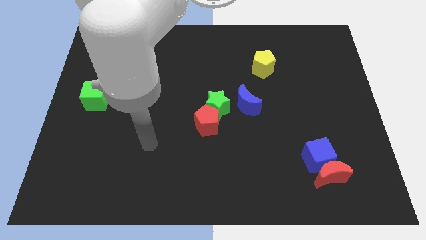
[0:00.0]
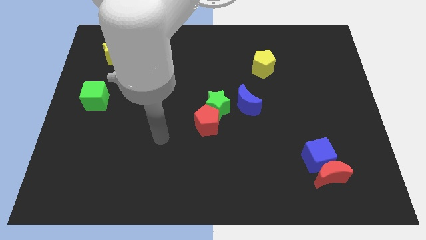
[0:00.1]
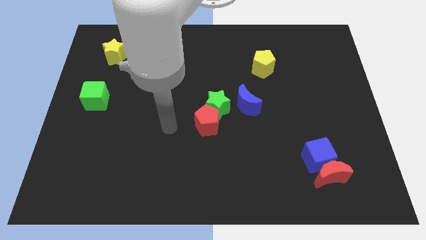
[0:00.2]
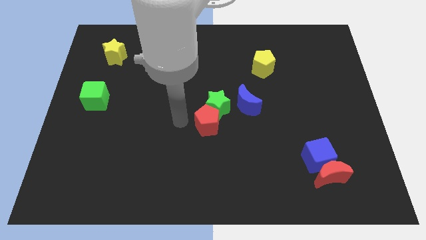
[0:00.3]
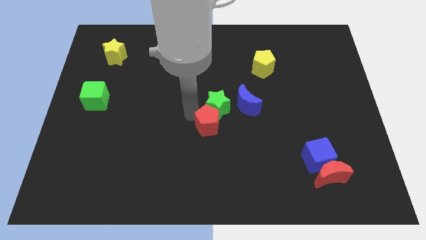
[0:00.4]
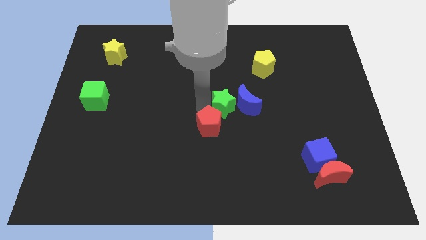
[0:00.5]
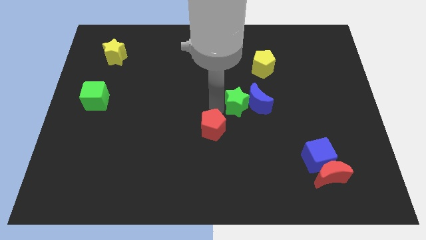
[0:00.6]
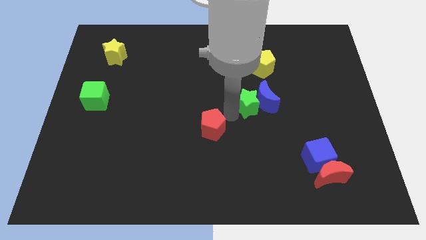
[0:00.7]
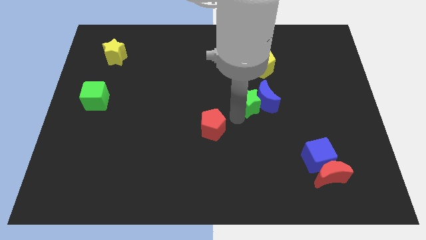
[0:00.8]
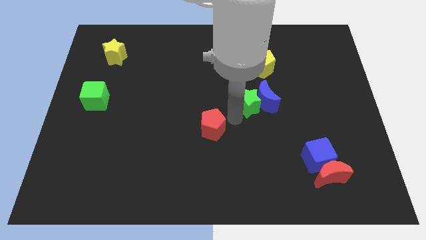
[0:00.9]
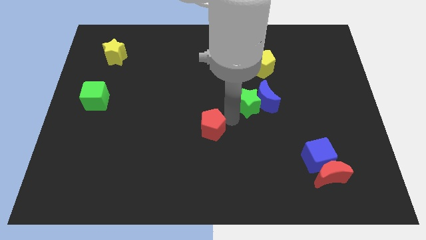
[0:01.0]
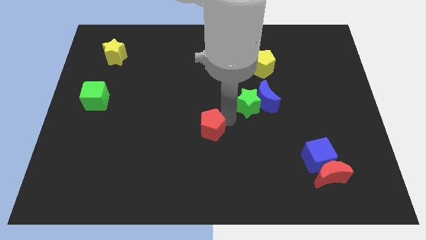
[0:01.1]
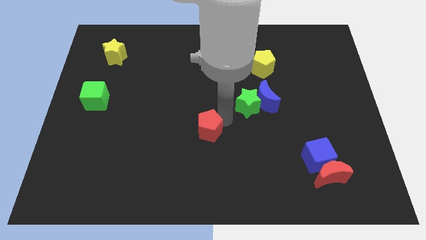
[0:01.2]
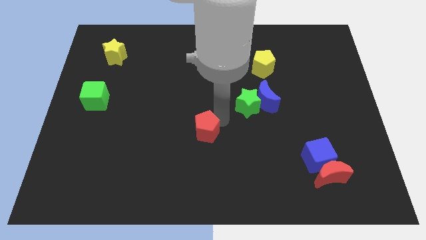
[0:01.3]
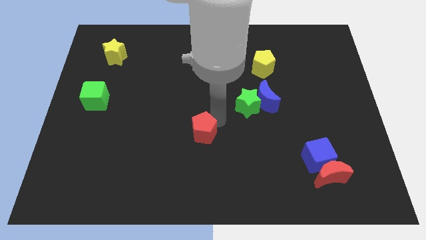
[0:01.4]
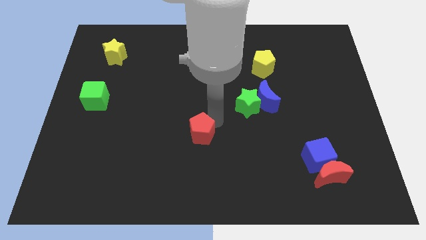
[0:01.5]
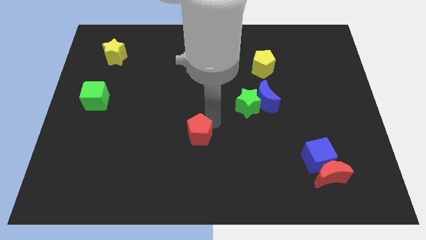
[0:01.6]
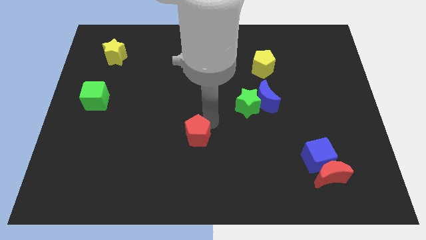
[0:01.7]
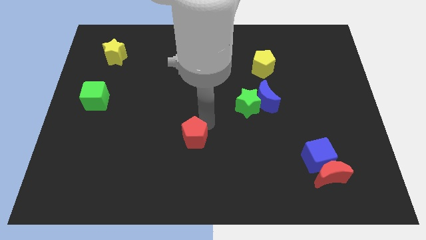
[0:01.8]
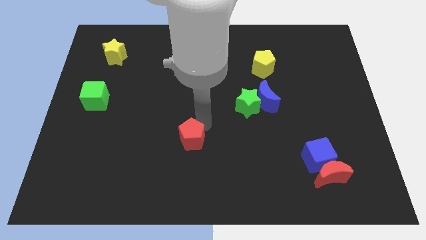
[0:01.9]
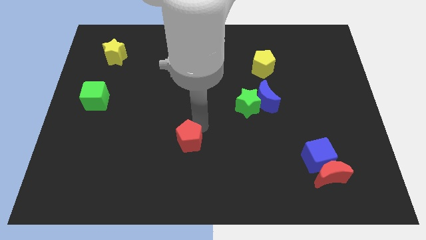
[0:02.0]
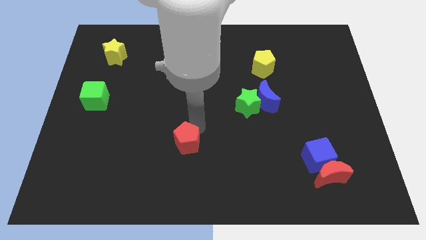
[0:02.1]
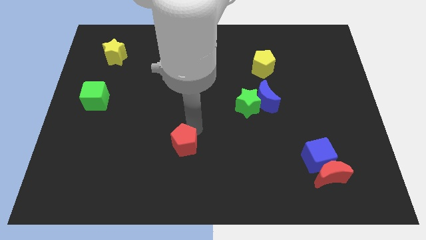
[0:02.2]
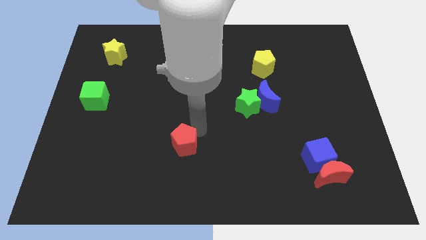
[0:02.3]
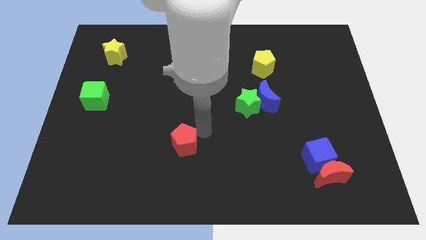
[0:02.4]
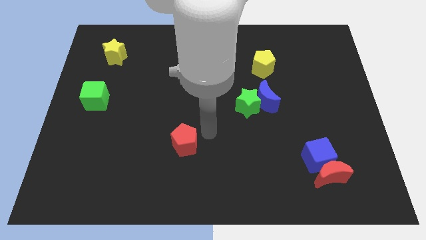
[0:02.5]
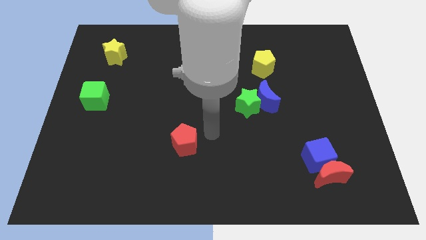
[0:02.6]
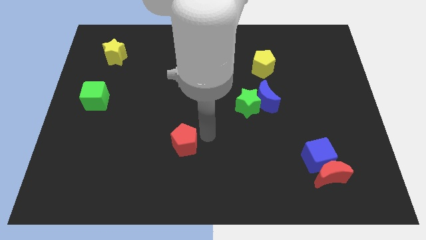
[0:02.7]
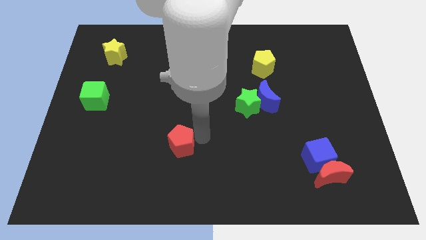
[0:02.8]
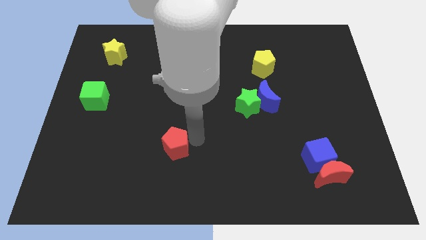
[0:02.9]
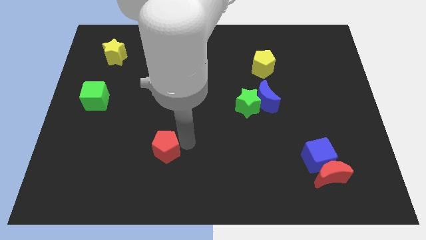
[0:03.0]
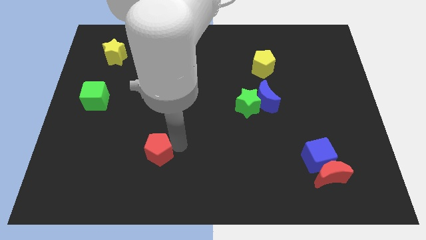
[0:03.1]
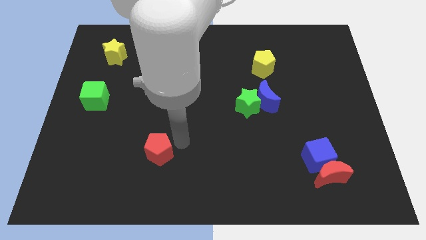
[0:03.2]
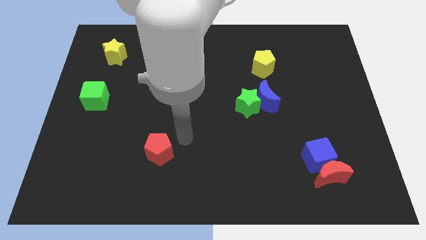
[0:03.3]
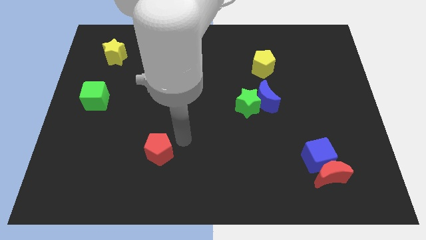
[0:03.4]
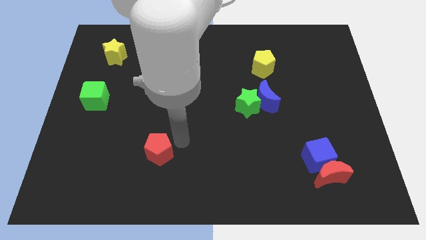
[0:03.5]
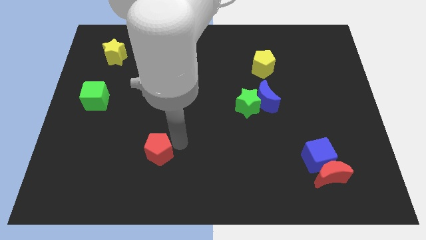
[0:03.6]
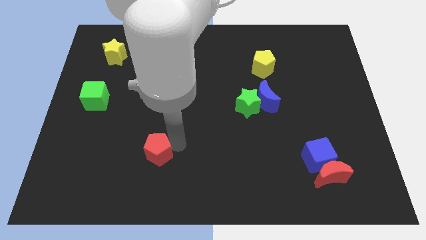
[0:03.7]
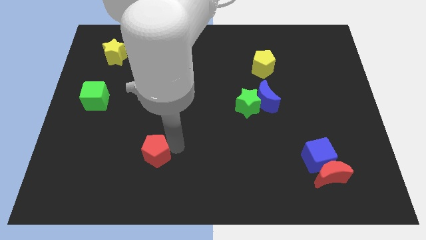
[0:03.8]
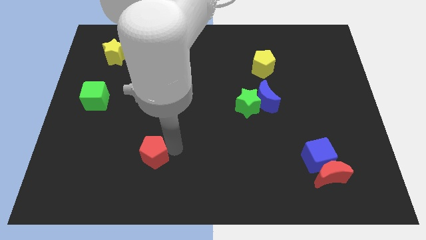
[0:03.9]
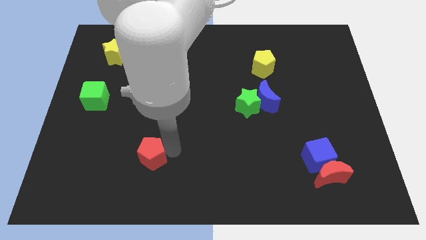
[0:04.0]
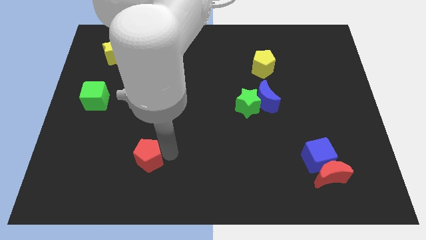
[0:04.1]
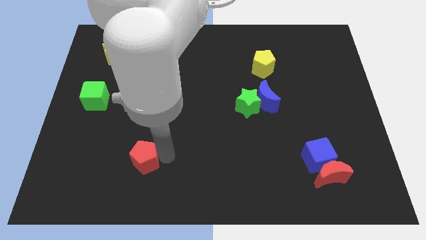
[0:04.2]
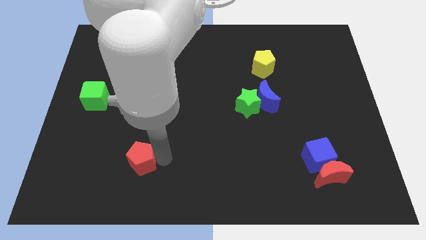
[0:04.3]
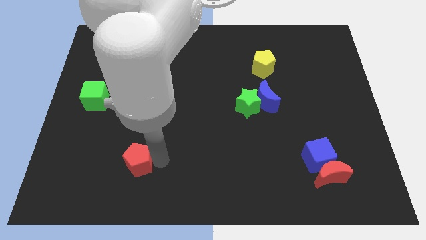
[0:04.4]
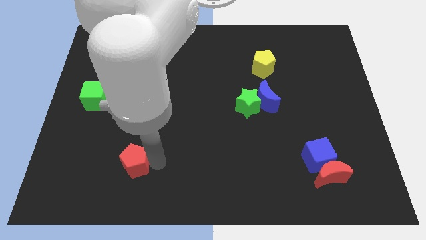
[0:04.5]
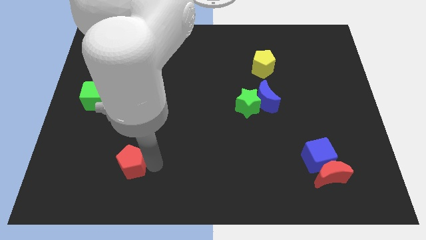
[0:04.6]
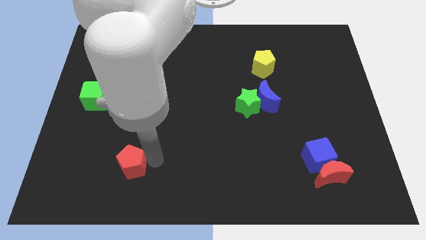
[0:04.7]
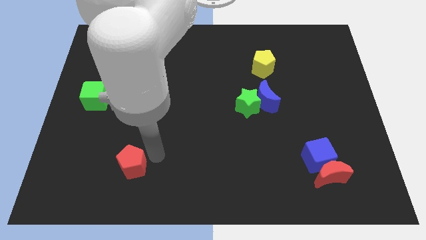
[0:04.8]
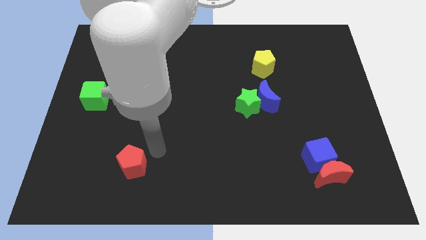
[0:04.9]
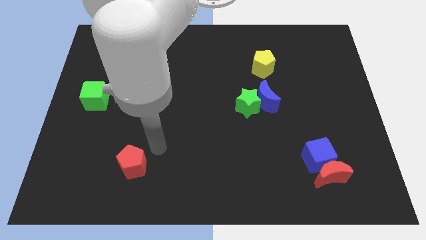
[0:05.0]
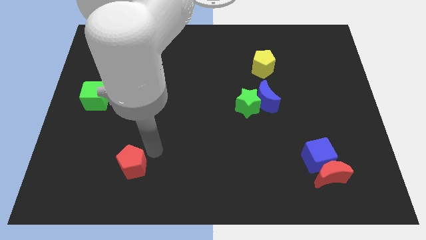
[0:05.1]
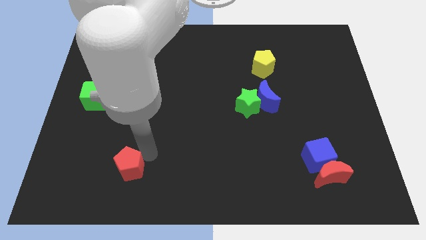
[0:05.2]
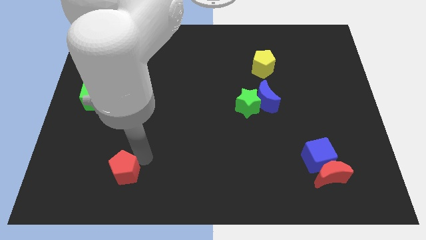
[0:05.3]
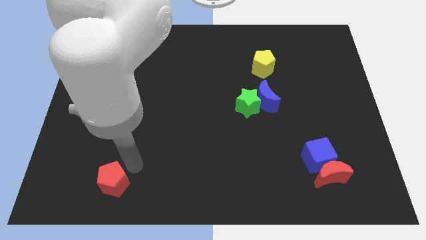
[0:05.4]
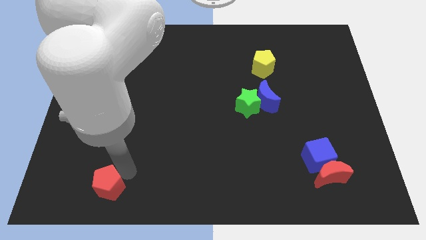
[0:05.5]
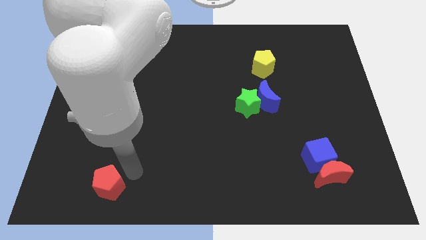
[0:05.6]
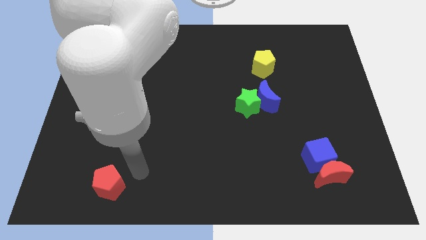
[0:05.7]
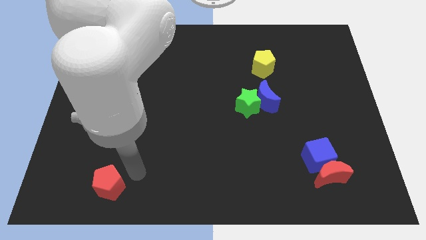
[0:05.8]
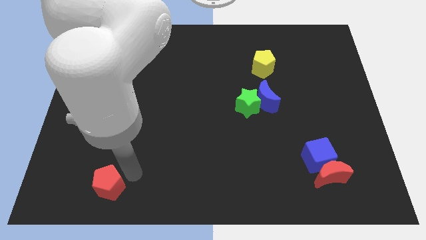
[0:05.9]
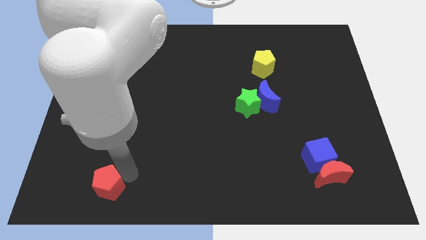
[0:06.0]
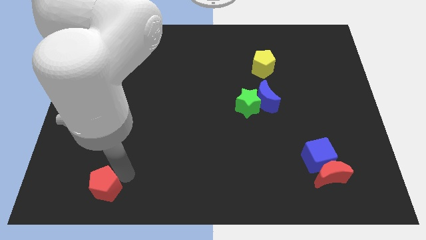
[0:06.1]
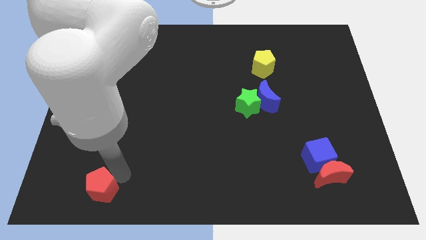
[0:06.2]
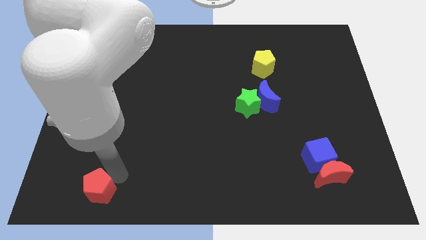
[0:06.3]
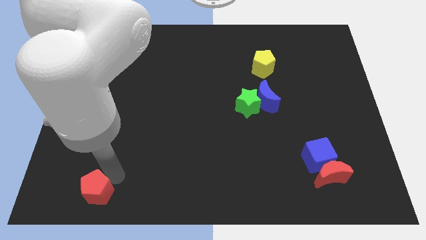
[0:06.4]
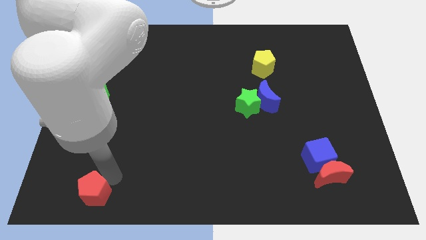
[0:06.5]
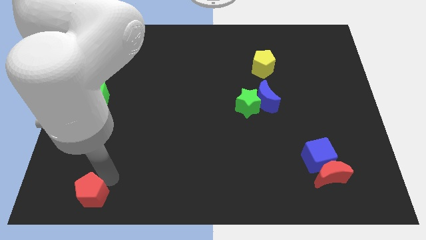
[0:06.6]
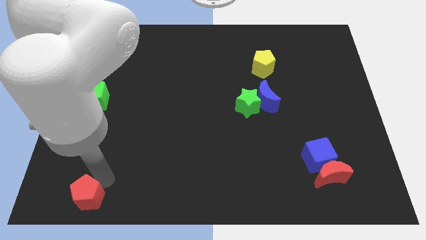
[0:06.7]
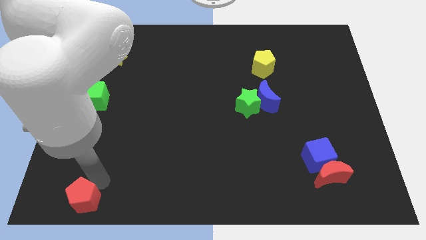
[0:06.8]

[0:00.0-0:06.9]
move the red pentagon to the bottom left corner

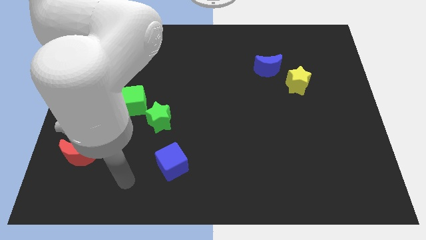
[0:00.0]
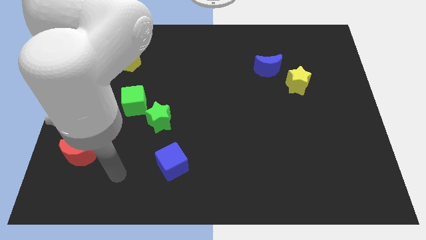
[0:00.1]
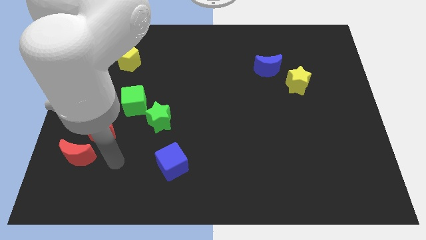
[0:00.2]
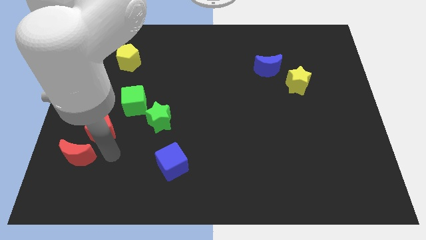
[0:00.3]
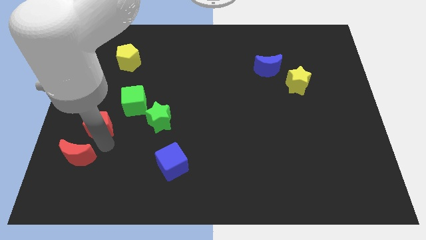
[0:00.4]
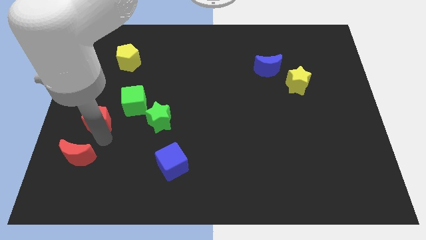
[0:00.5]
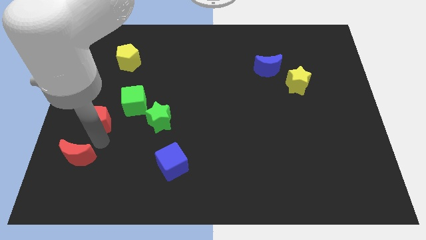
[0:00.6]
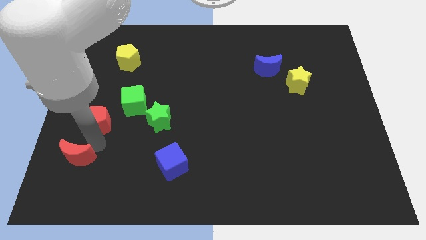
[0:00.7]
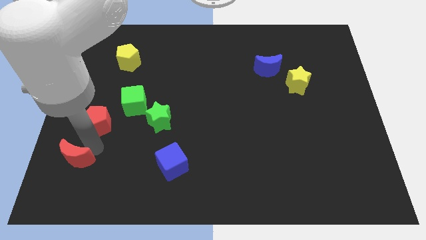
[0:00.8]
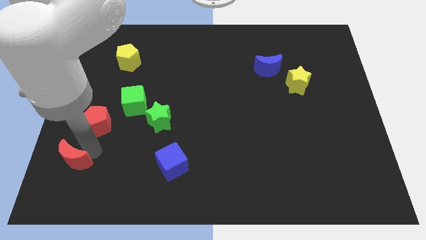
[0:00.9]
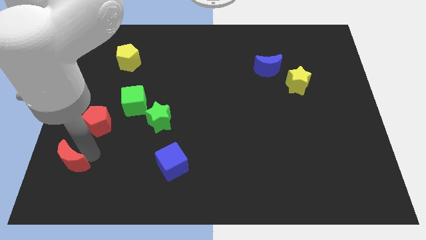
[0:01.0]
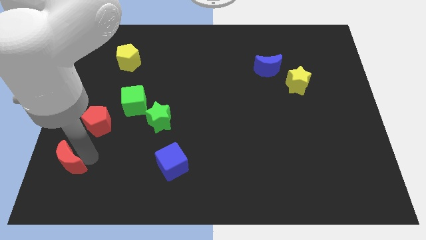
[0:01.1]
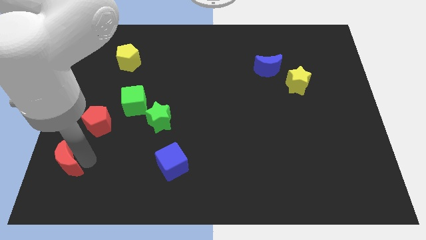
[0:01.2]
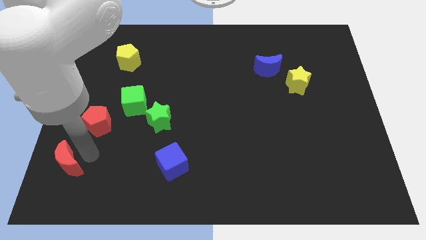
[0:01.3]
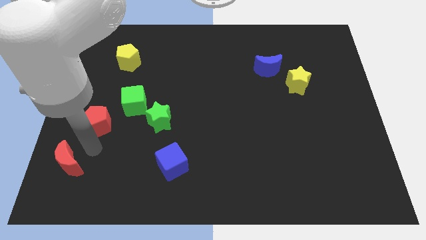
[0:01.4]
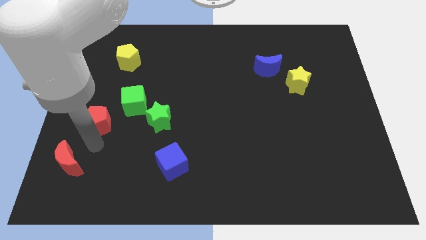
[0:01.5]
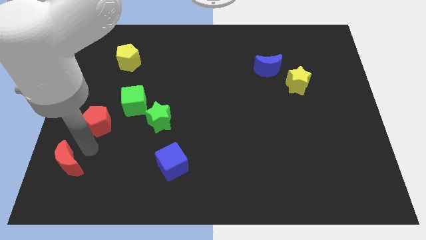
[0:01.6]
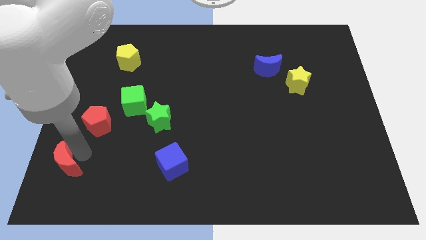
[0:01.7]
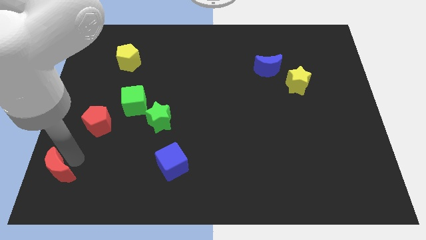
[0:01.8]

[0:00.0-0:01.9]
move the red moon to the bottom left of the board
